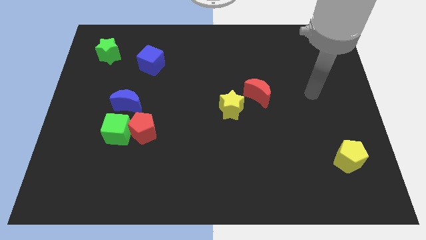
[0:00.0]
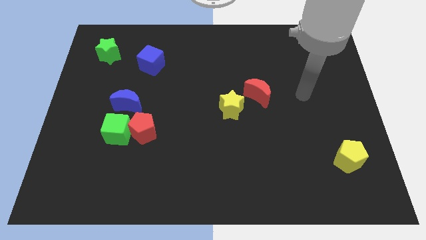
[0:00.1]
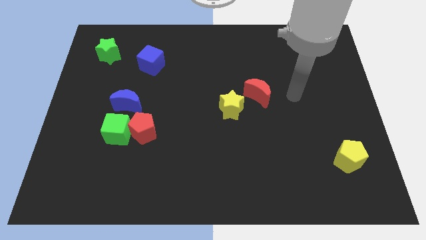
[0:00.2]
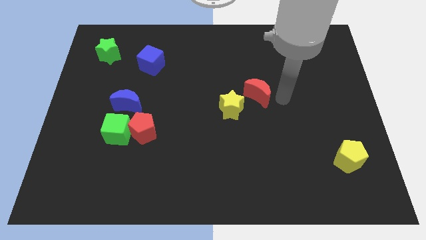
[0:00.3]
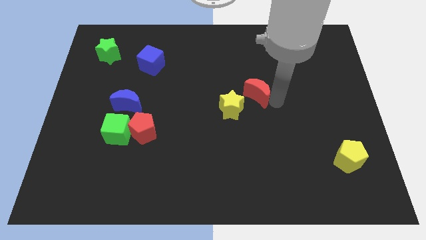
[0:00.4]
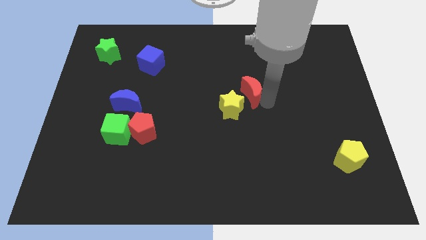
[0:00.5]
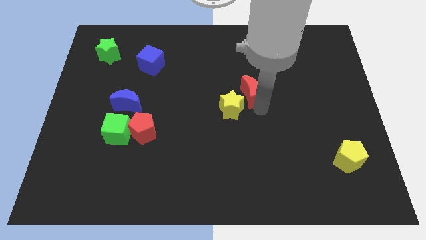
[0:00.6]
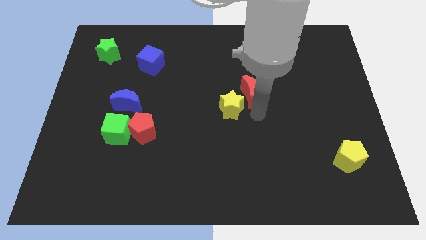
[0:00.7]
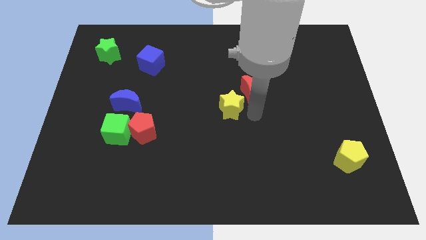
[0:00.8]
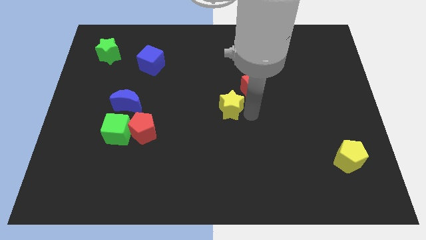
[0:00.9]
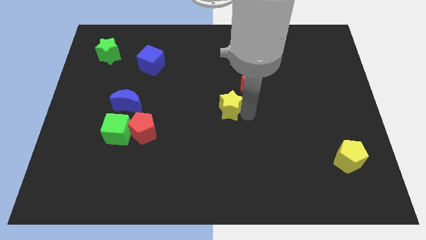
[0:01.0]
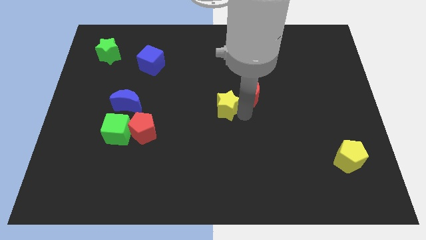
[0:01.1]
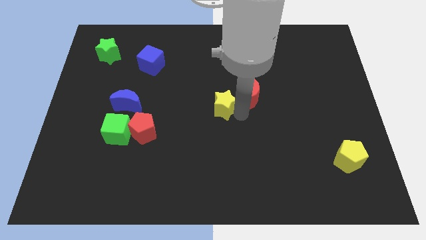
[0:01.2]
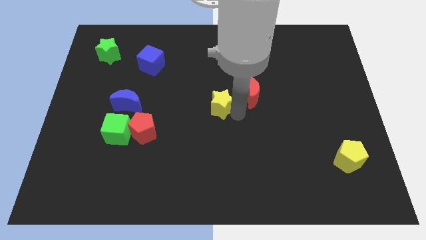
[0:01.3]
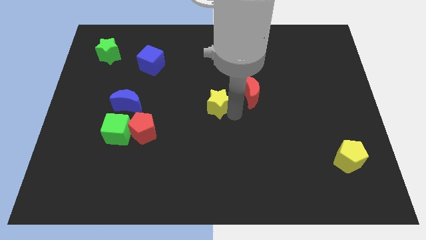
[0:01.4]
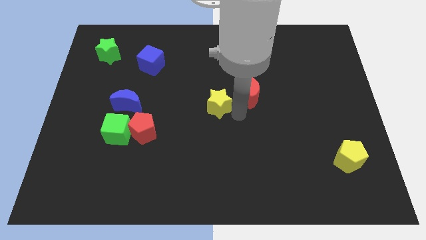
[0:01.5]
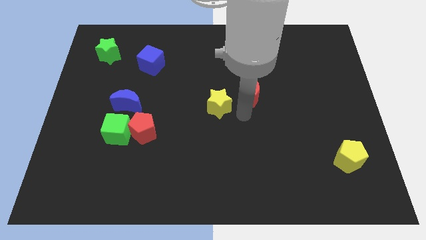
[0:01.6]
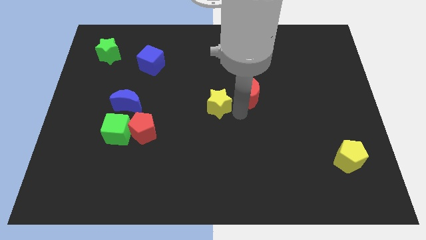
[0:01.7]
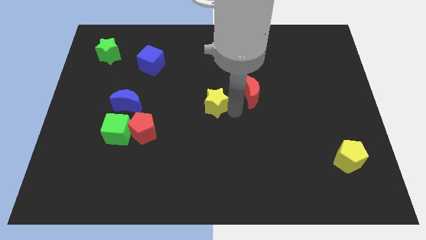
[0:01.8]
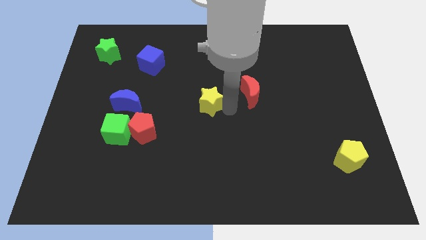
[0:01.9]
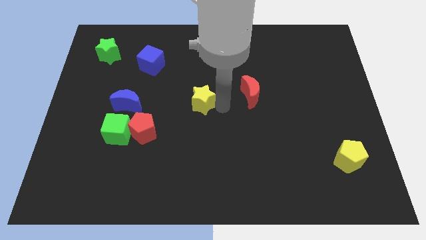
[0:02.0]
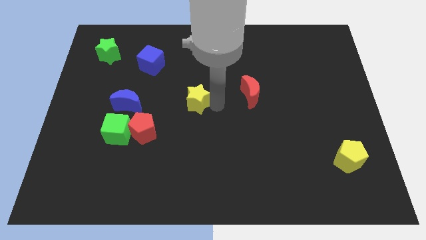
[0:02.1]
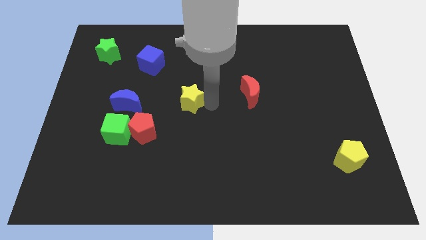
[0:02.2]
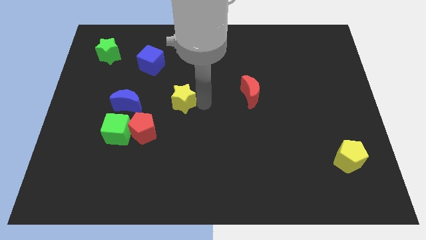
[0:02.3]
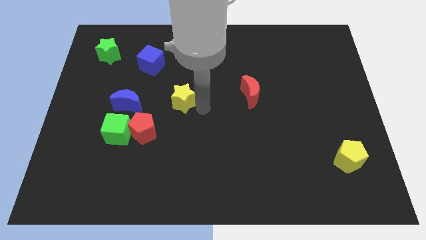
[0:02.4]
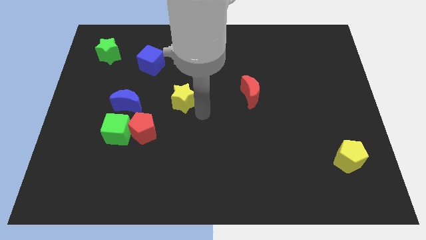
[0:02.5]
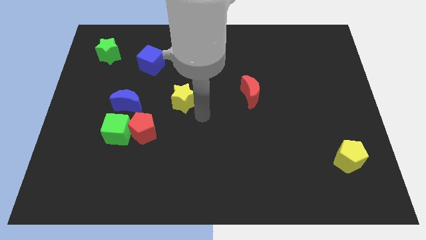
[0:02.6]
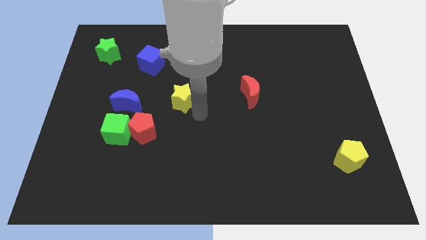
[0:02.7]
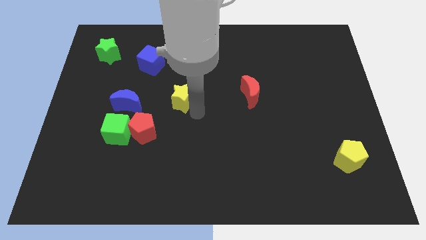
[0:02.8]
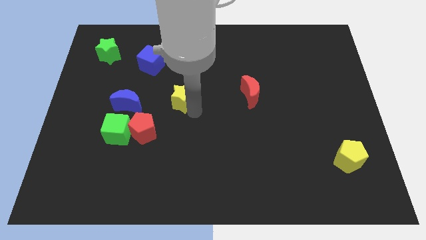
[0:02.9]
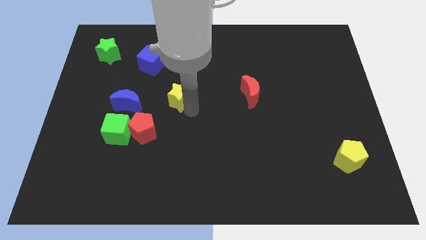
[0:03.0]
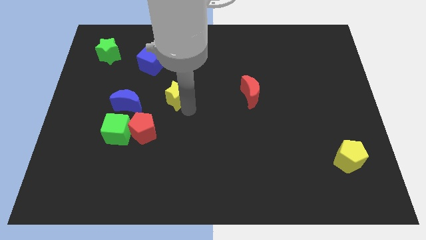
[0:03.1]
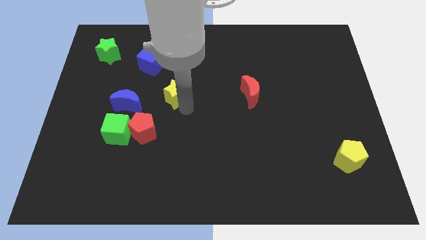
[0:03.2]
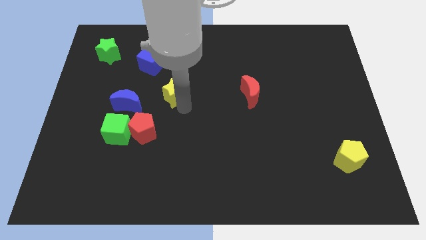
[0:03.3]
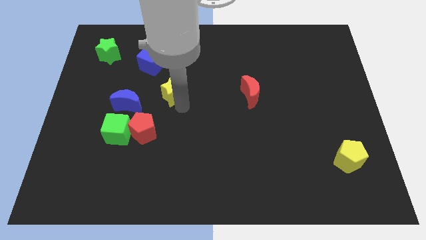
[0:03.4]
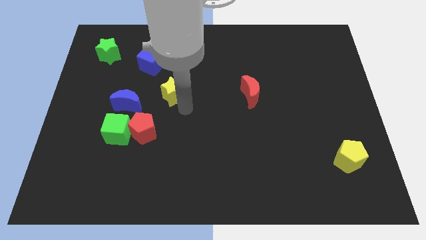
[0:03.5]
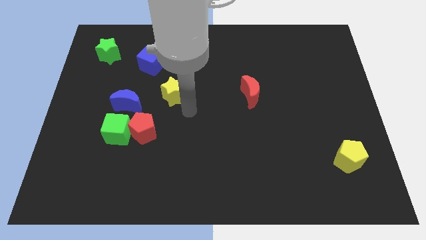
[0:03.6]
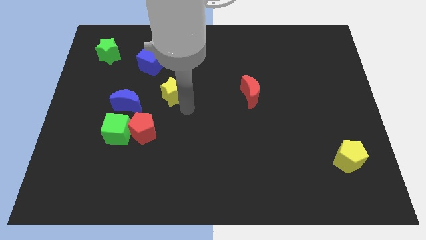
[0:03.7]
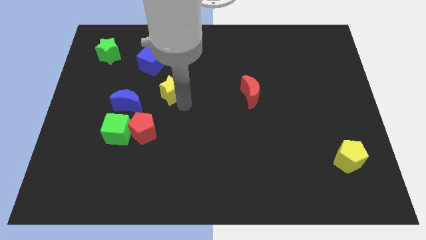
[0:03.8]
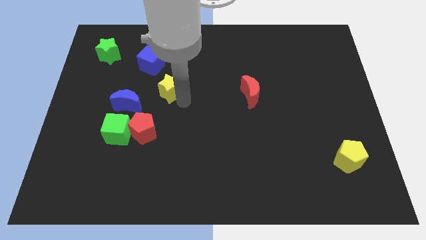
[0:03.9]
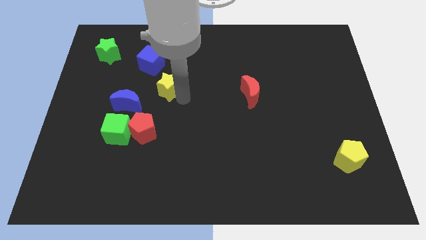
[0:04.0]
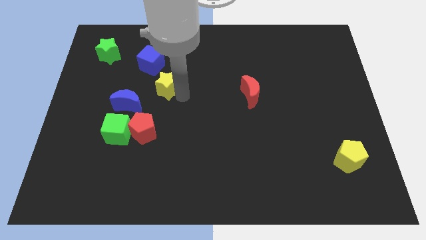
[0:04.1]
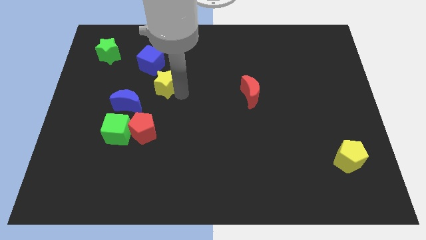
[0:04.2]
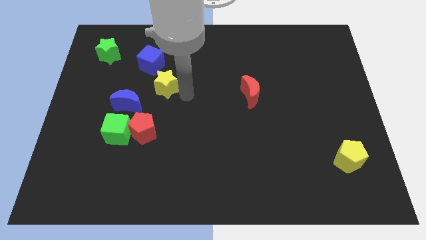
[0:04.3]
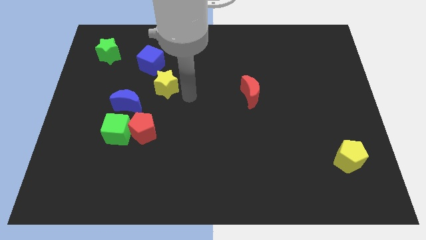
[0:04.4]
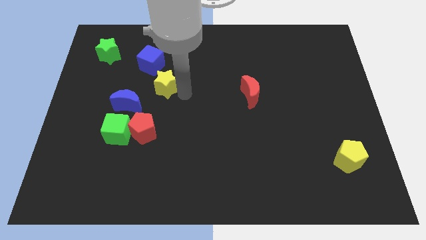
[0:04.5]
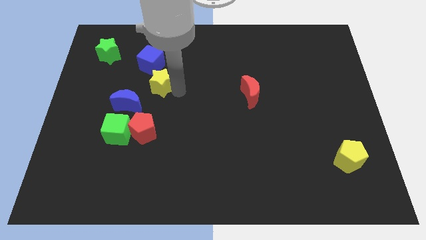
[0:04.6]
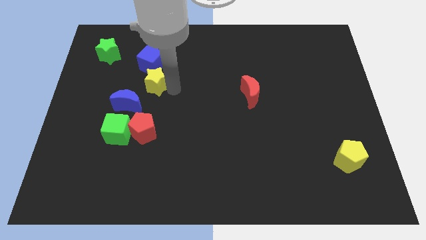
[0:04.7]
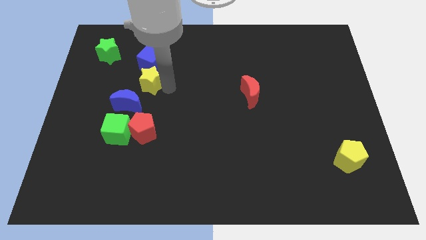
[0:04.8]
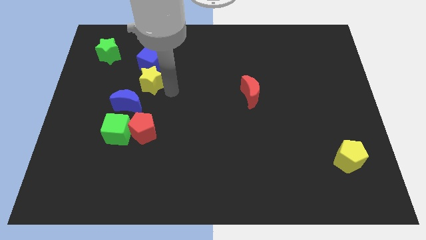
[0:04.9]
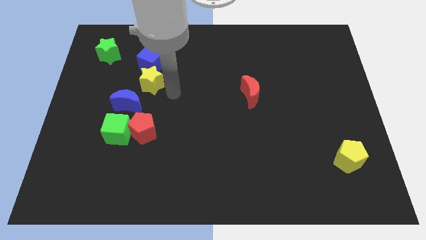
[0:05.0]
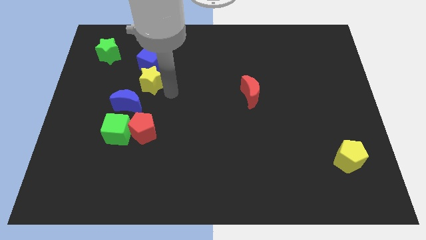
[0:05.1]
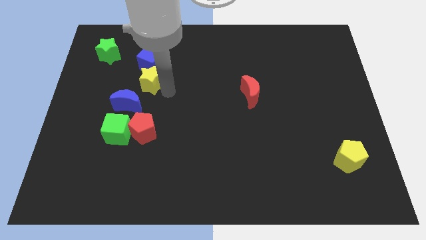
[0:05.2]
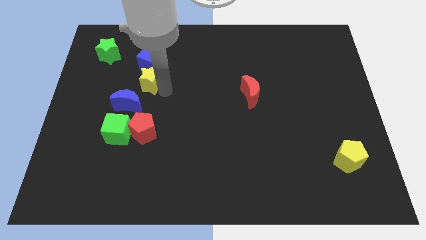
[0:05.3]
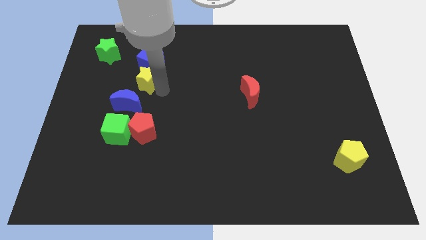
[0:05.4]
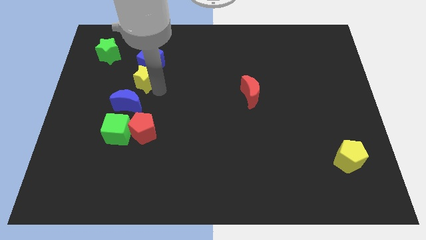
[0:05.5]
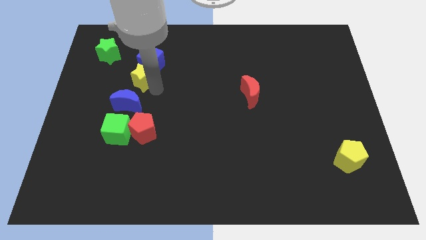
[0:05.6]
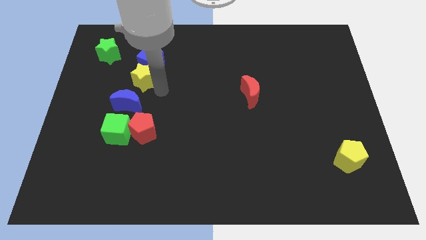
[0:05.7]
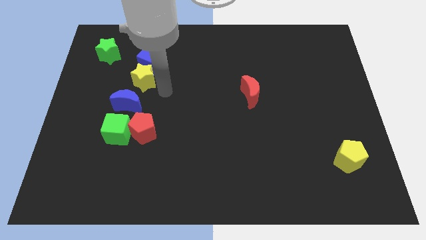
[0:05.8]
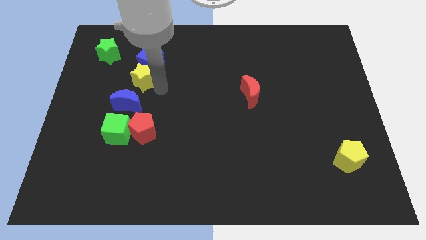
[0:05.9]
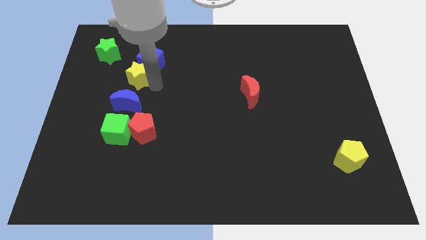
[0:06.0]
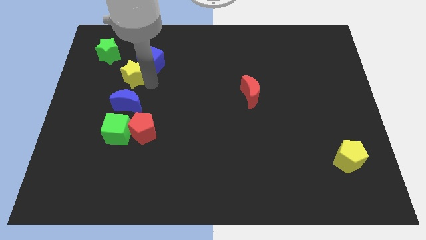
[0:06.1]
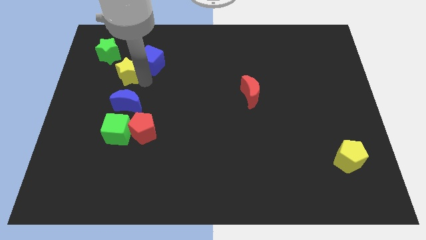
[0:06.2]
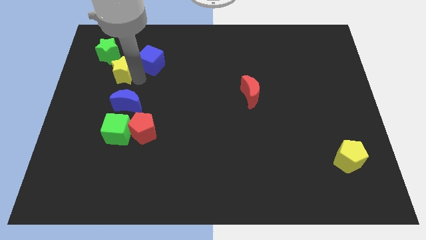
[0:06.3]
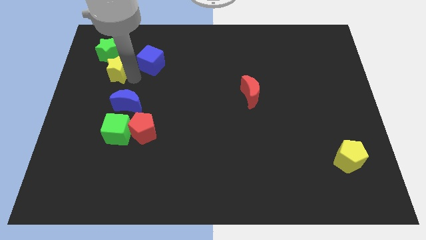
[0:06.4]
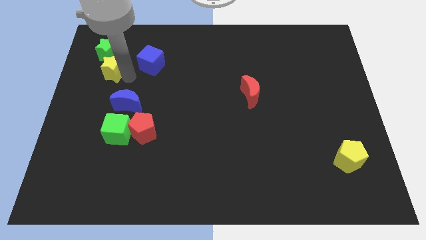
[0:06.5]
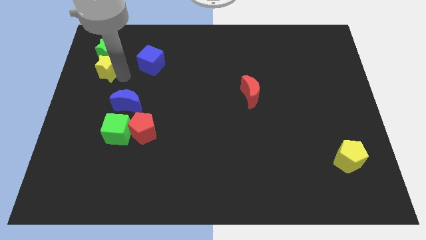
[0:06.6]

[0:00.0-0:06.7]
put the yellow star next to the green star

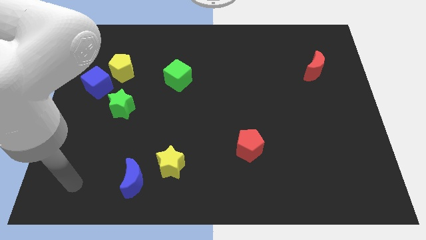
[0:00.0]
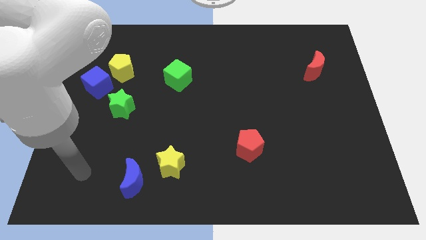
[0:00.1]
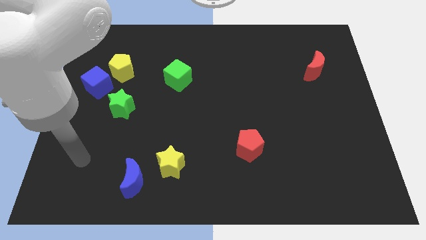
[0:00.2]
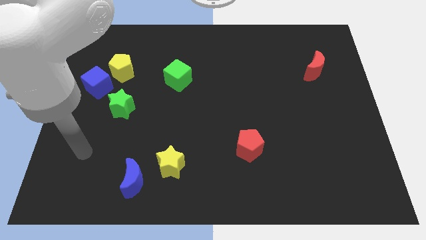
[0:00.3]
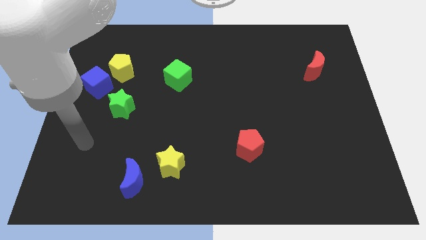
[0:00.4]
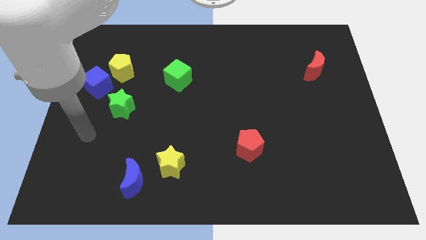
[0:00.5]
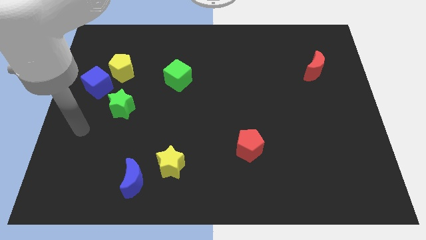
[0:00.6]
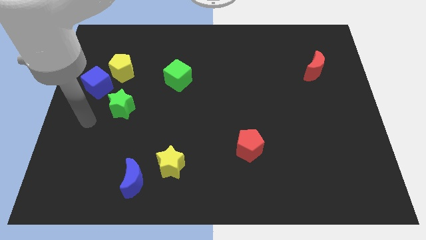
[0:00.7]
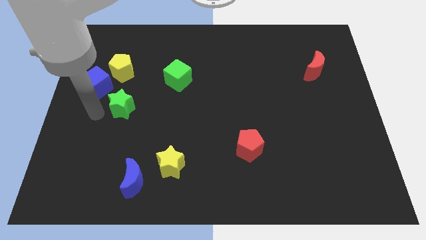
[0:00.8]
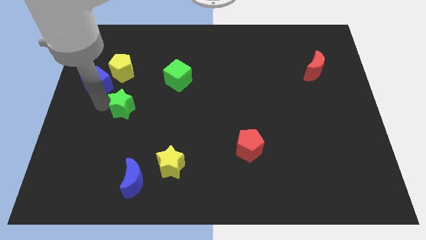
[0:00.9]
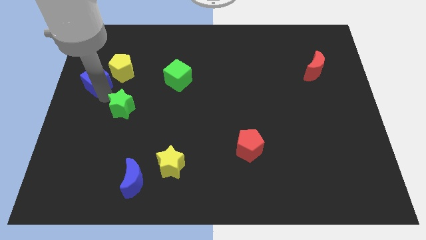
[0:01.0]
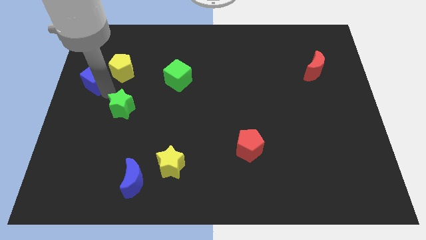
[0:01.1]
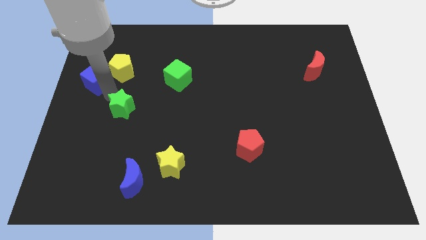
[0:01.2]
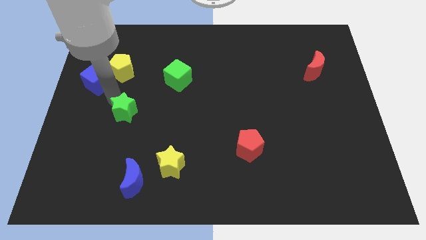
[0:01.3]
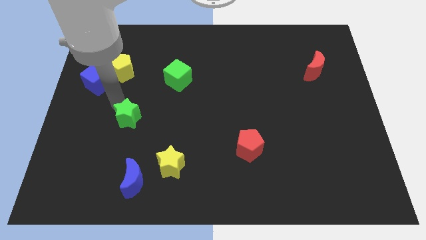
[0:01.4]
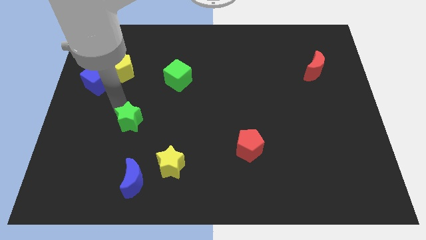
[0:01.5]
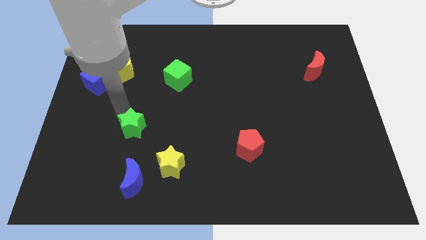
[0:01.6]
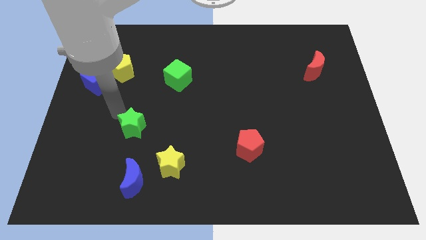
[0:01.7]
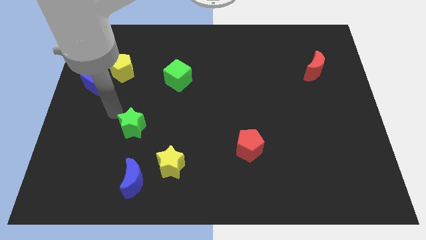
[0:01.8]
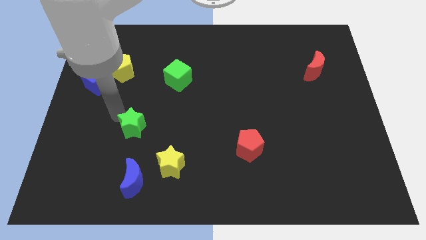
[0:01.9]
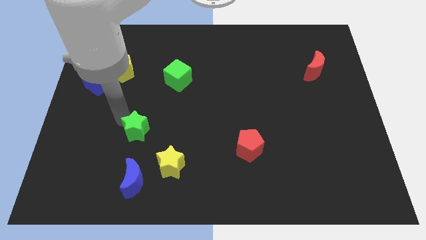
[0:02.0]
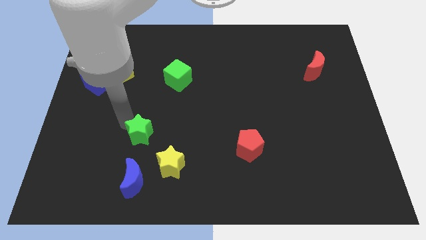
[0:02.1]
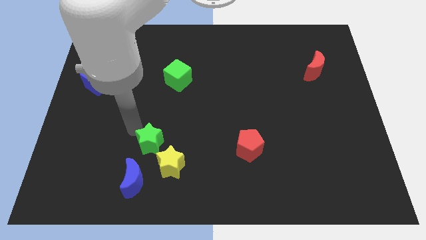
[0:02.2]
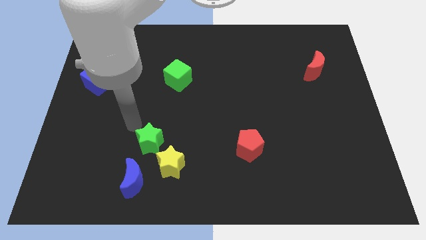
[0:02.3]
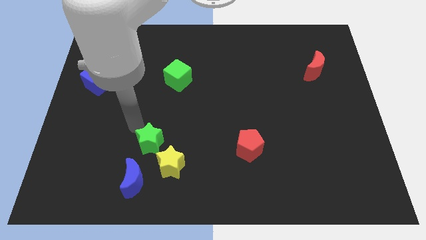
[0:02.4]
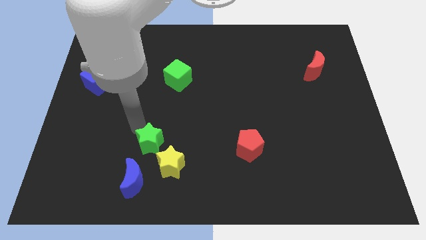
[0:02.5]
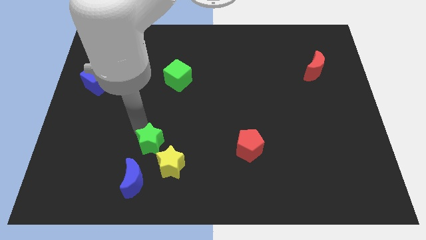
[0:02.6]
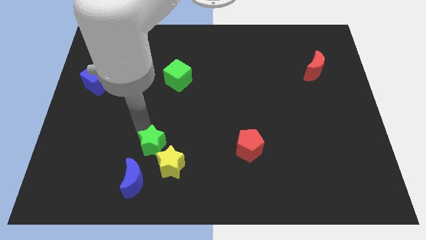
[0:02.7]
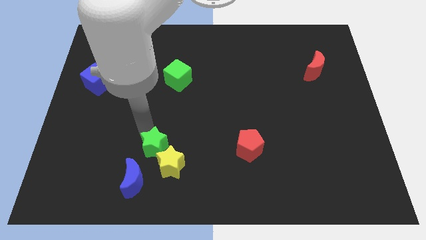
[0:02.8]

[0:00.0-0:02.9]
slide the green star towards the yellow star
